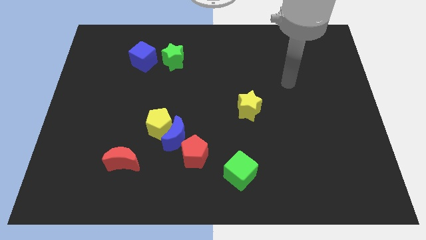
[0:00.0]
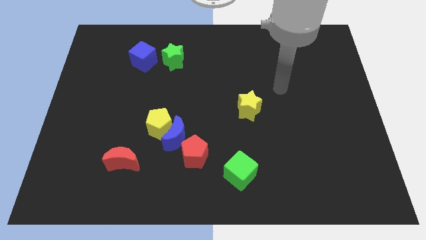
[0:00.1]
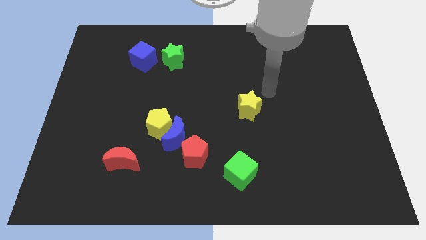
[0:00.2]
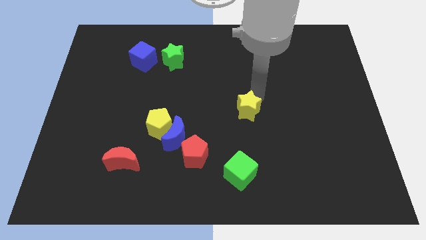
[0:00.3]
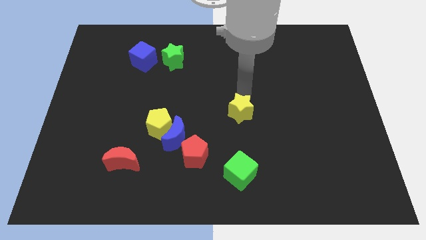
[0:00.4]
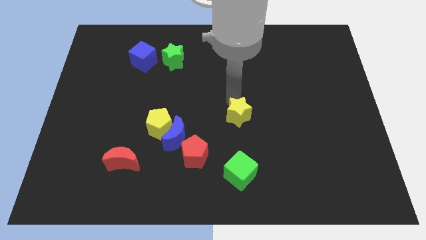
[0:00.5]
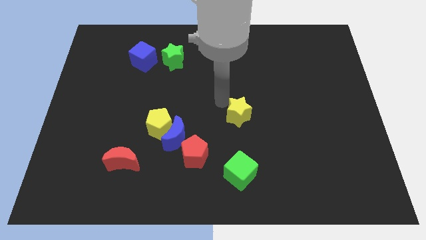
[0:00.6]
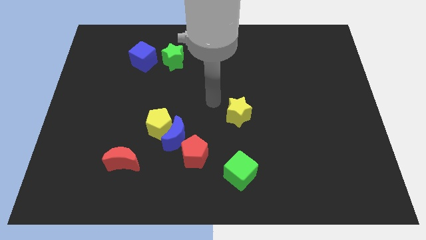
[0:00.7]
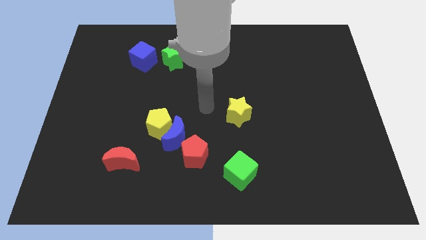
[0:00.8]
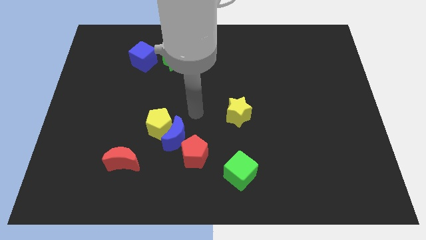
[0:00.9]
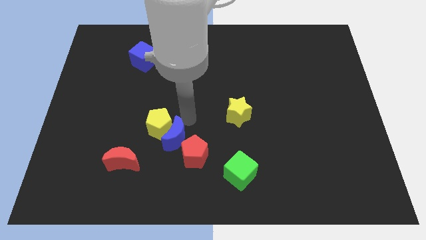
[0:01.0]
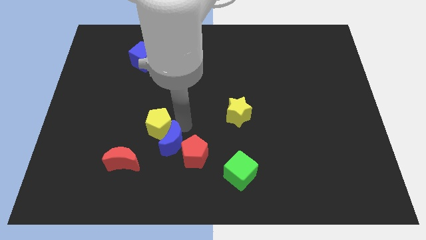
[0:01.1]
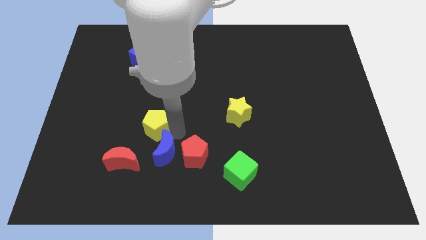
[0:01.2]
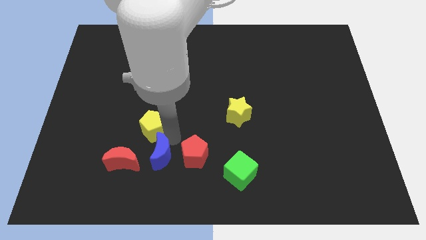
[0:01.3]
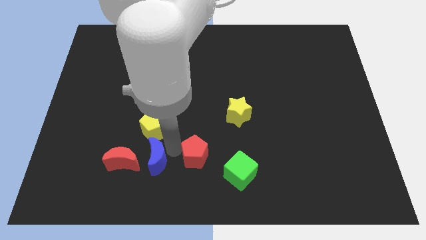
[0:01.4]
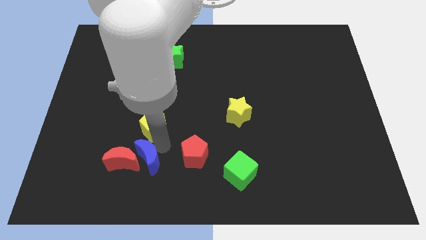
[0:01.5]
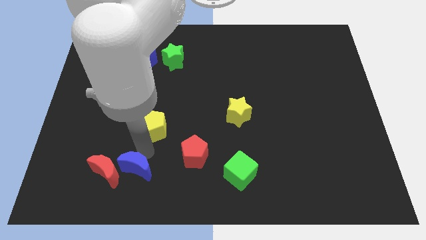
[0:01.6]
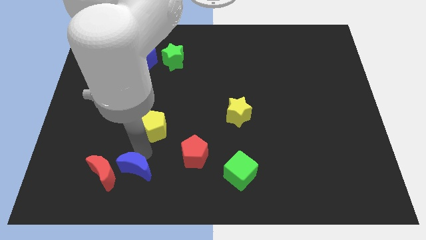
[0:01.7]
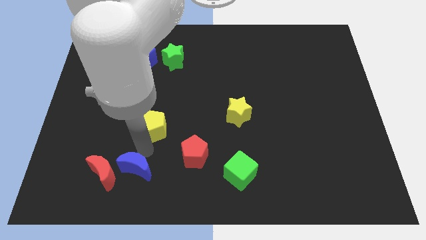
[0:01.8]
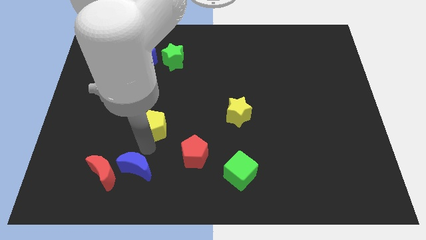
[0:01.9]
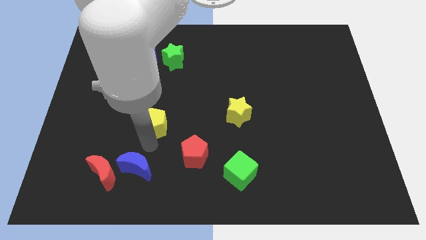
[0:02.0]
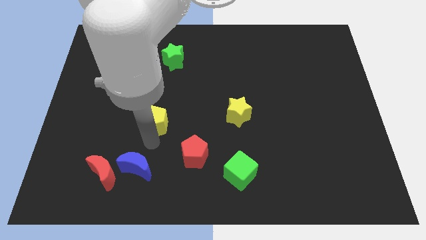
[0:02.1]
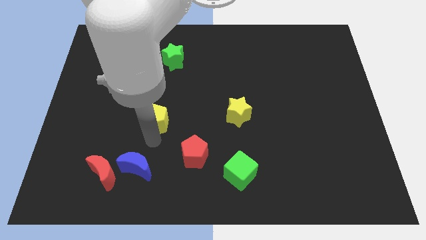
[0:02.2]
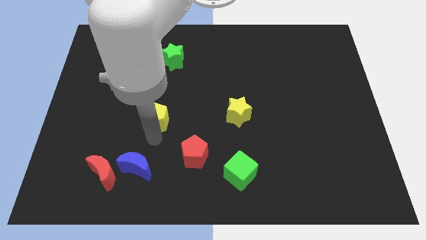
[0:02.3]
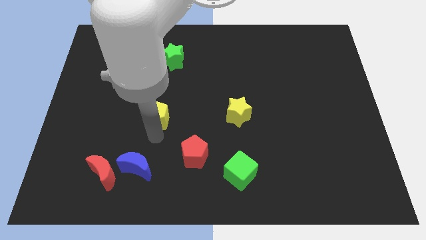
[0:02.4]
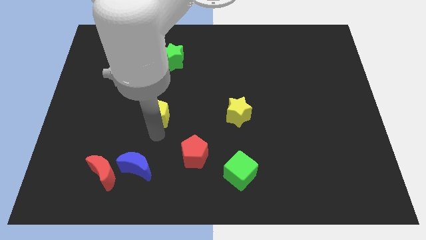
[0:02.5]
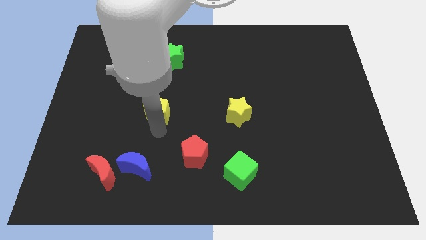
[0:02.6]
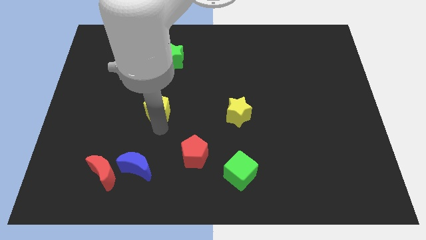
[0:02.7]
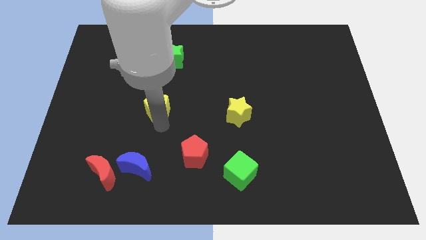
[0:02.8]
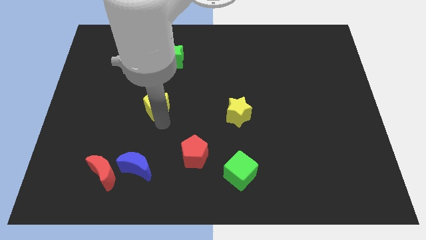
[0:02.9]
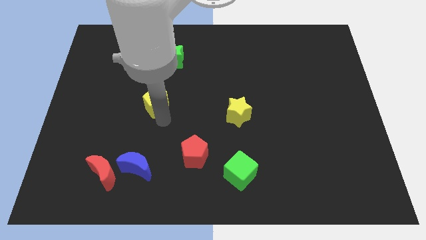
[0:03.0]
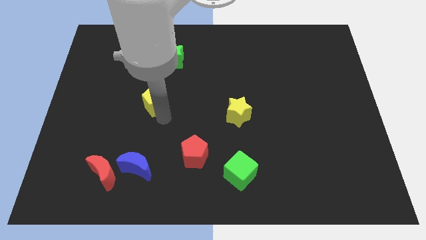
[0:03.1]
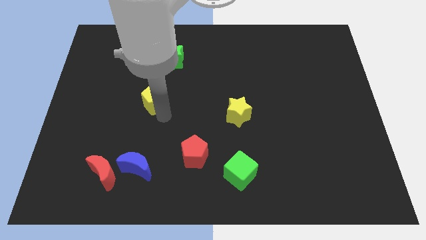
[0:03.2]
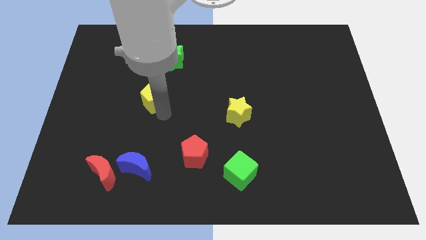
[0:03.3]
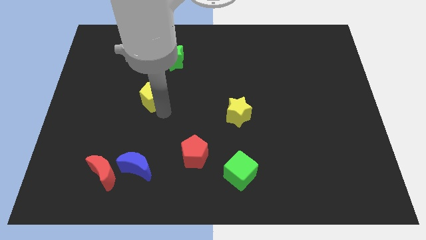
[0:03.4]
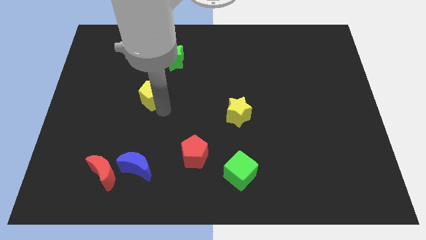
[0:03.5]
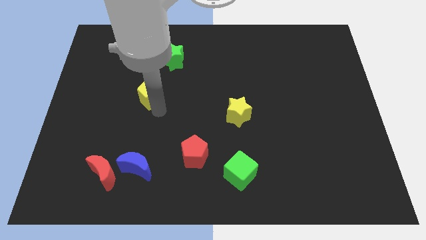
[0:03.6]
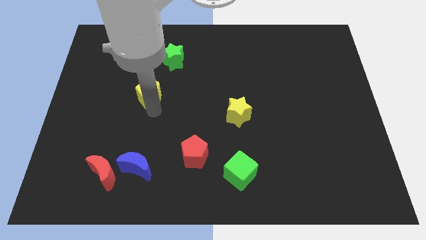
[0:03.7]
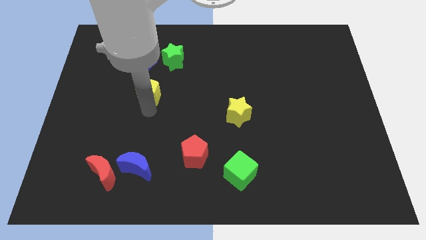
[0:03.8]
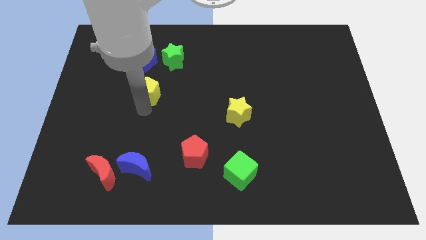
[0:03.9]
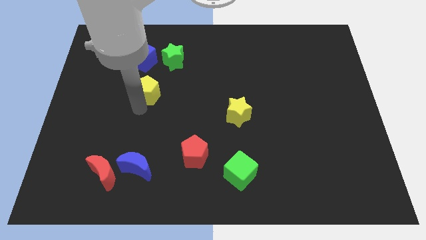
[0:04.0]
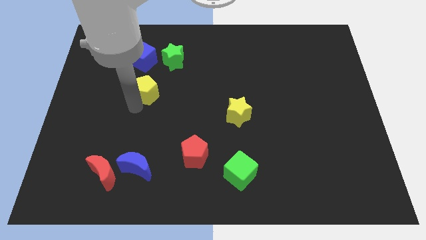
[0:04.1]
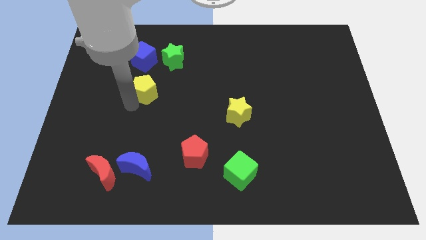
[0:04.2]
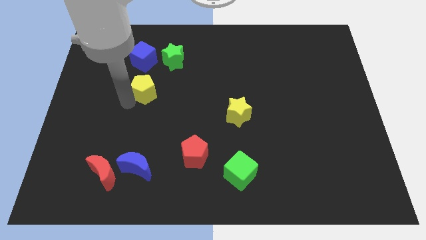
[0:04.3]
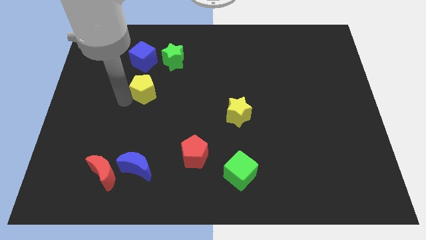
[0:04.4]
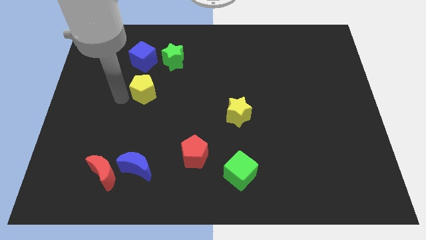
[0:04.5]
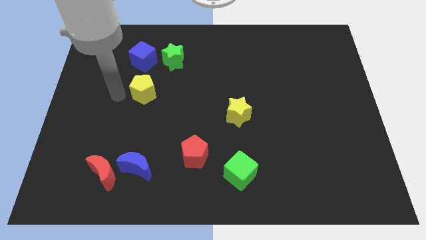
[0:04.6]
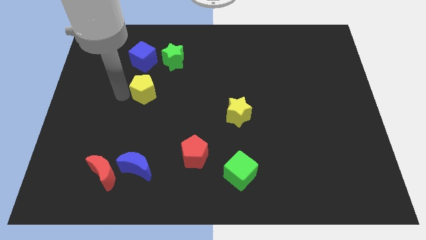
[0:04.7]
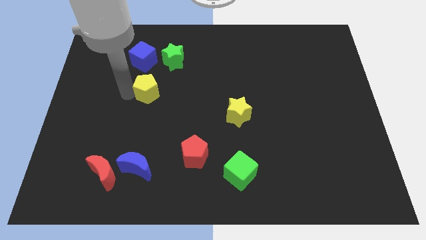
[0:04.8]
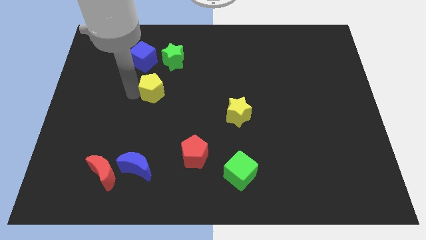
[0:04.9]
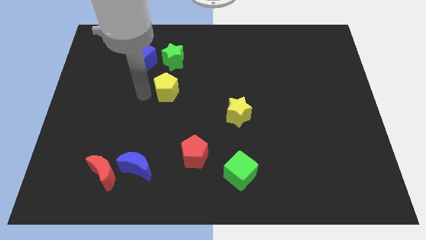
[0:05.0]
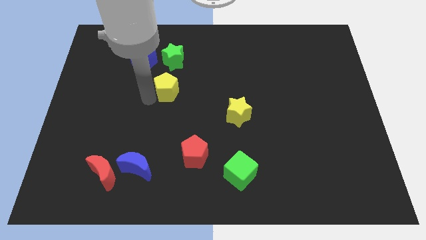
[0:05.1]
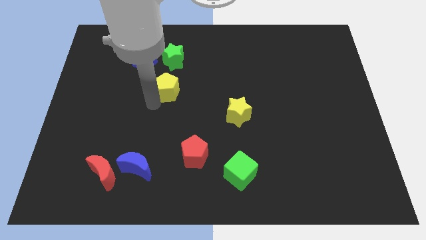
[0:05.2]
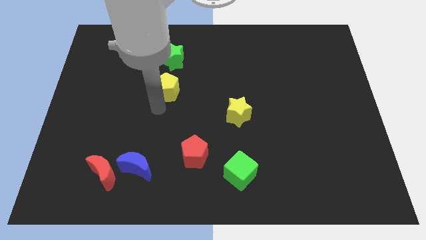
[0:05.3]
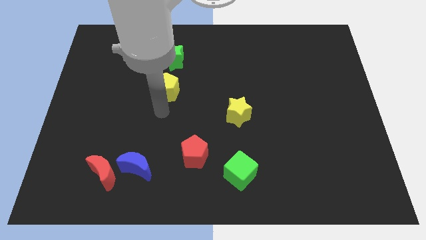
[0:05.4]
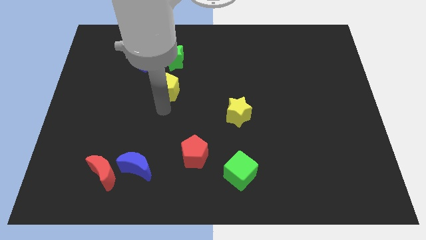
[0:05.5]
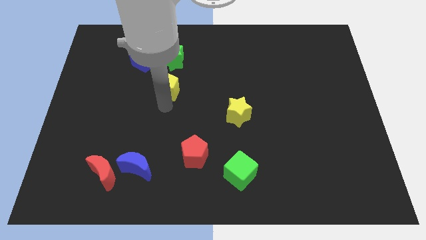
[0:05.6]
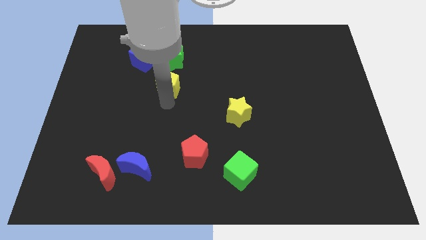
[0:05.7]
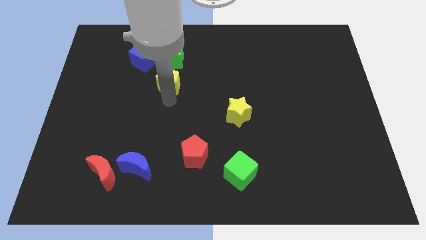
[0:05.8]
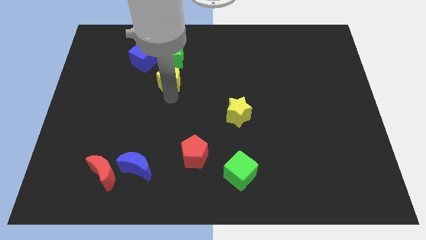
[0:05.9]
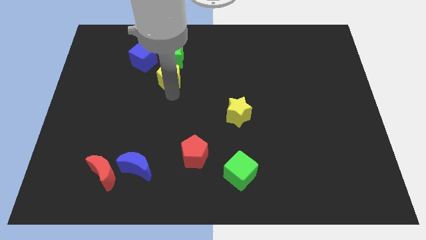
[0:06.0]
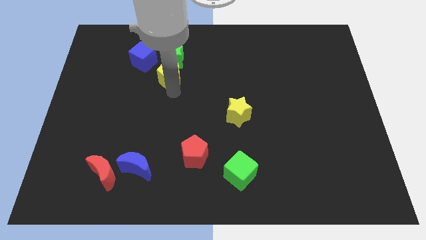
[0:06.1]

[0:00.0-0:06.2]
slide the yellow pentagon next to the green star

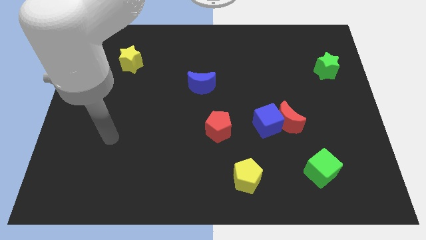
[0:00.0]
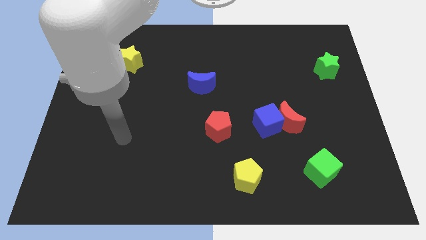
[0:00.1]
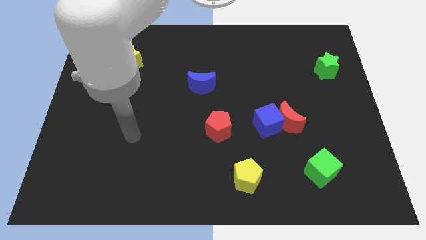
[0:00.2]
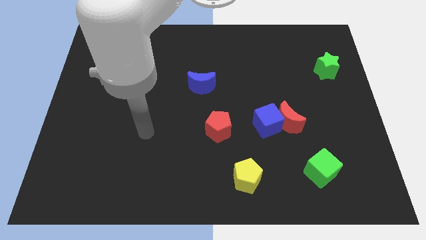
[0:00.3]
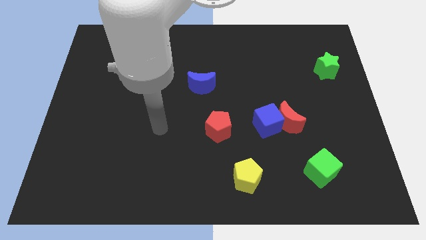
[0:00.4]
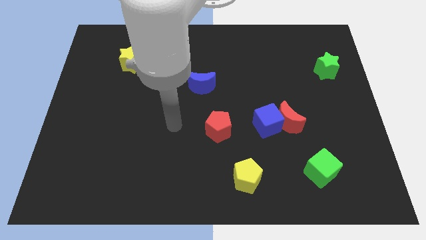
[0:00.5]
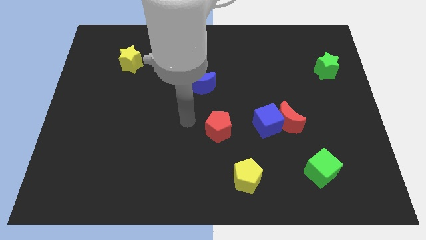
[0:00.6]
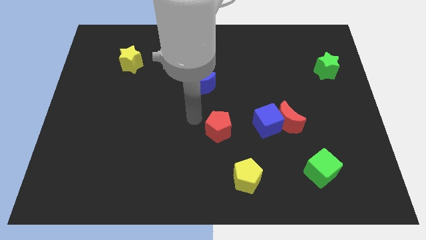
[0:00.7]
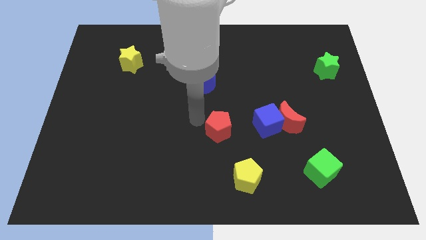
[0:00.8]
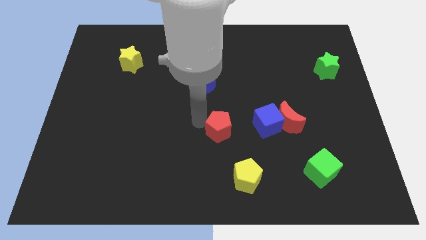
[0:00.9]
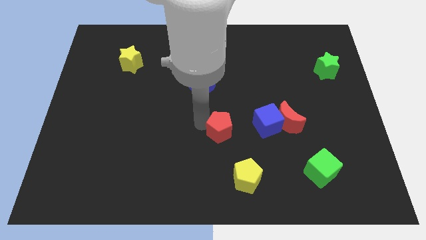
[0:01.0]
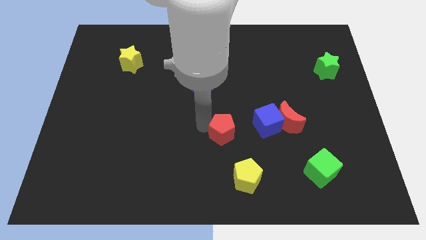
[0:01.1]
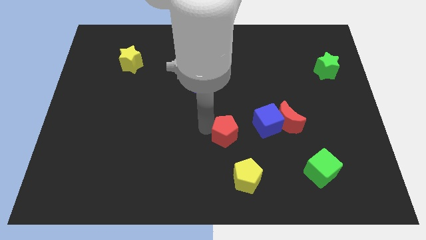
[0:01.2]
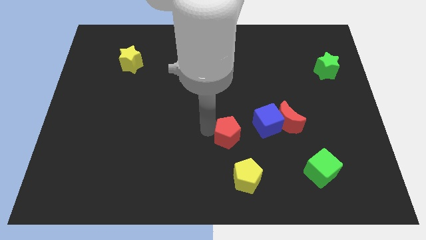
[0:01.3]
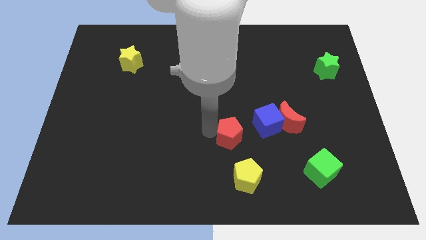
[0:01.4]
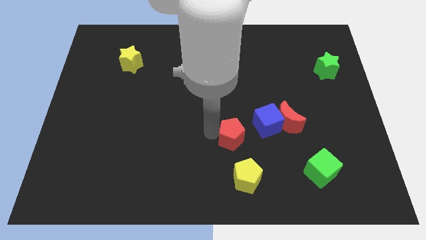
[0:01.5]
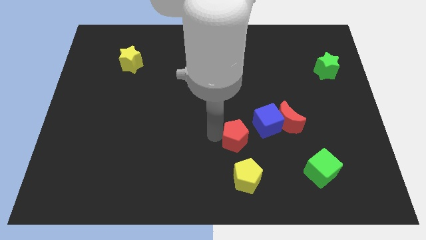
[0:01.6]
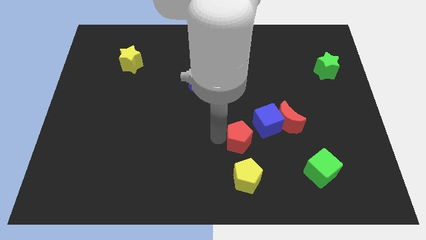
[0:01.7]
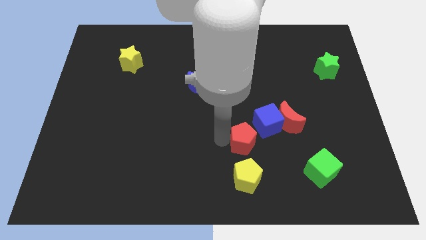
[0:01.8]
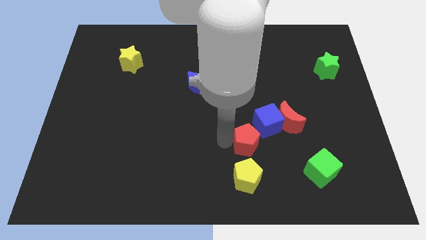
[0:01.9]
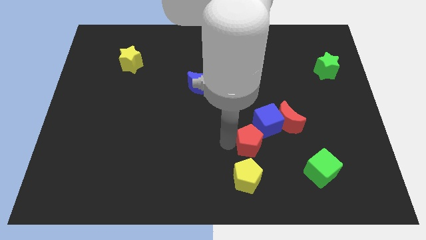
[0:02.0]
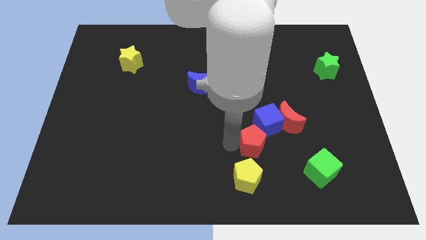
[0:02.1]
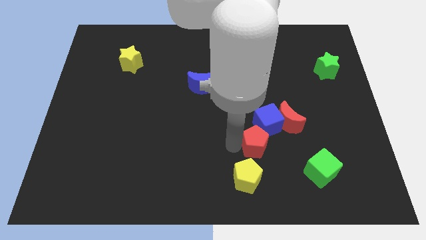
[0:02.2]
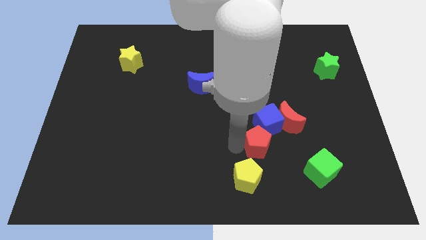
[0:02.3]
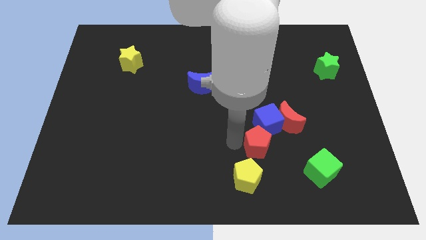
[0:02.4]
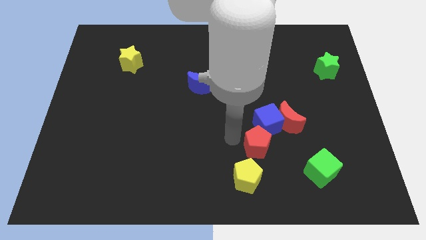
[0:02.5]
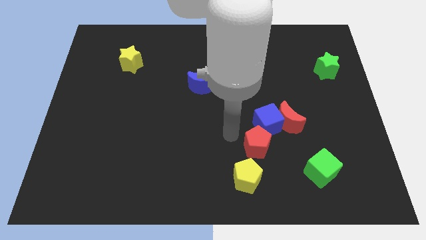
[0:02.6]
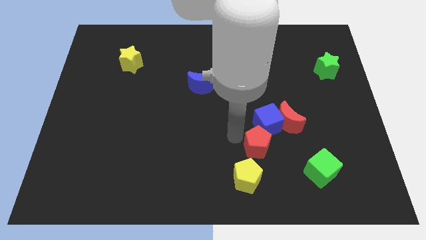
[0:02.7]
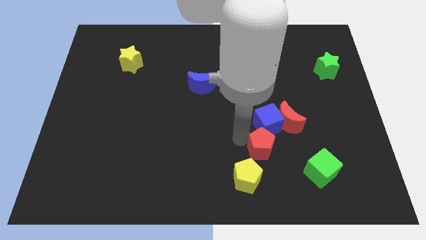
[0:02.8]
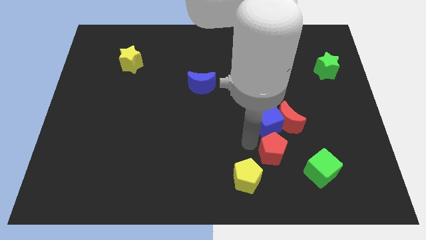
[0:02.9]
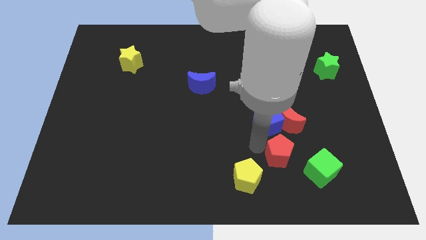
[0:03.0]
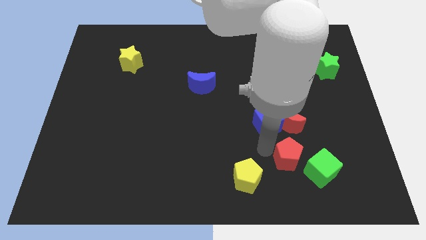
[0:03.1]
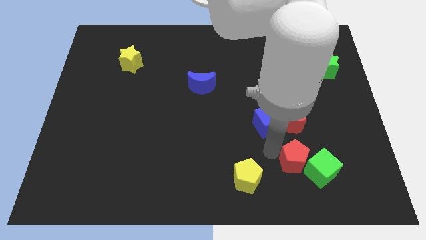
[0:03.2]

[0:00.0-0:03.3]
put the red pentagon to the green cube
